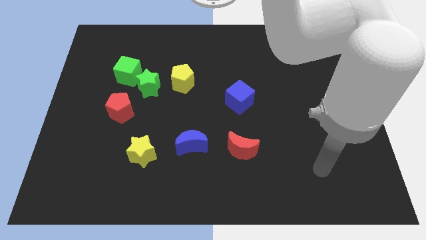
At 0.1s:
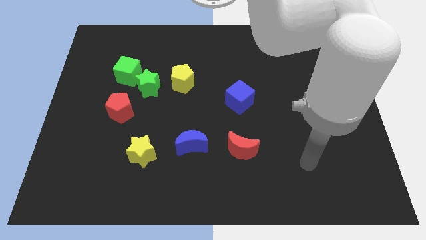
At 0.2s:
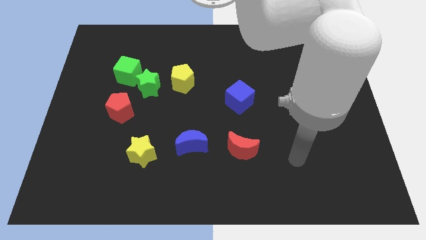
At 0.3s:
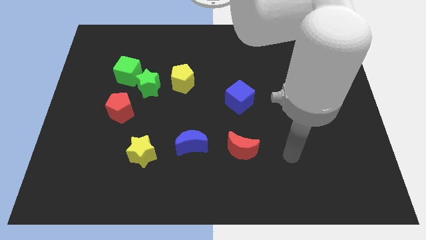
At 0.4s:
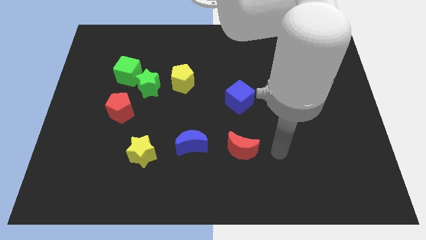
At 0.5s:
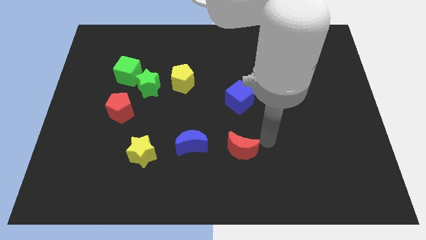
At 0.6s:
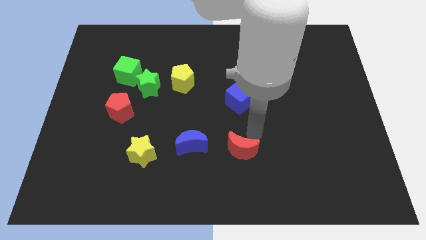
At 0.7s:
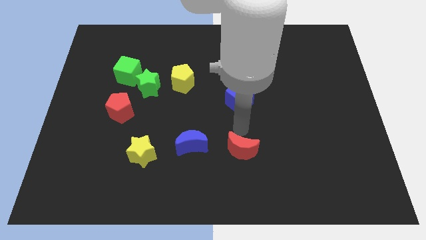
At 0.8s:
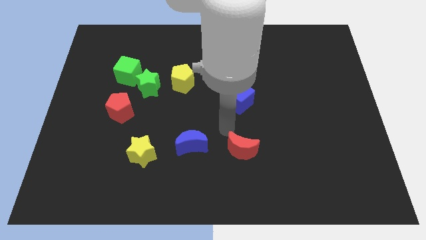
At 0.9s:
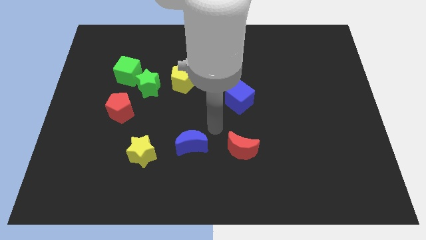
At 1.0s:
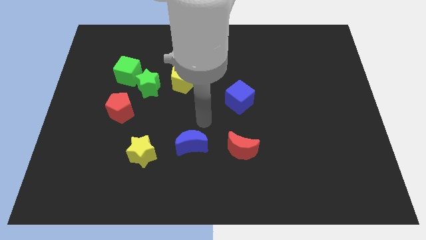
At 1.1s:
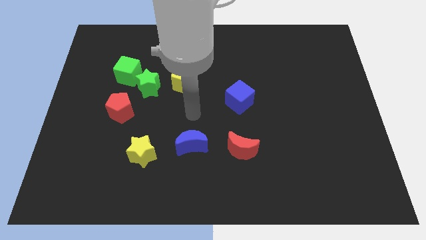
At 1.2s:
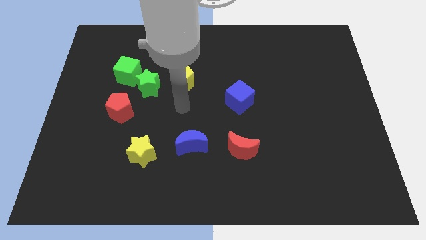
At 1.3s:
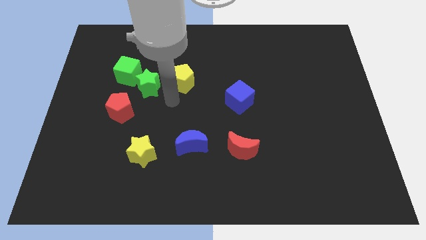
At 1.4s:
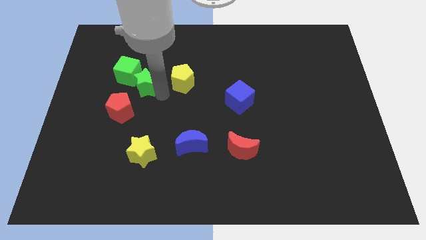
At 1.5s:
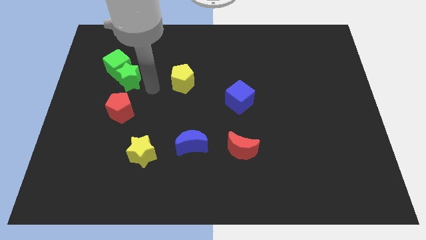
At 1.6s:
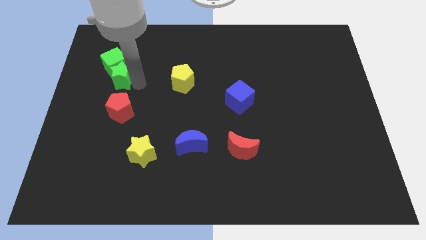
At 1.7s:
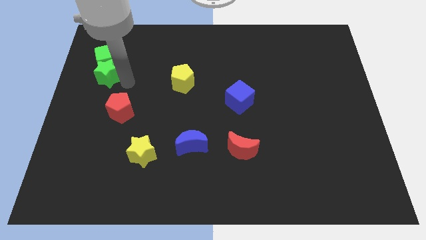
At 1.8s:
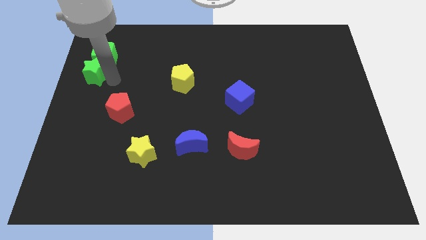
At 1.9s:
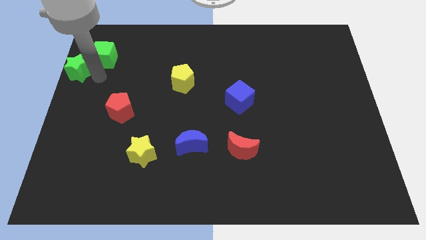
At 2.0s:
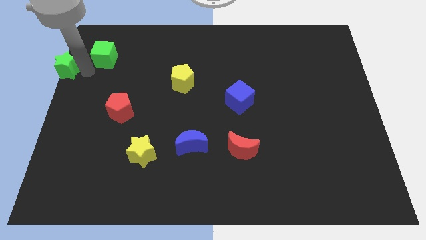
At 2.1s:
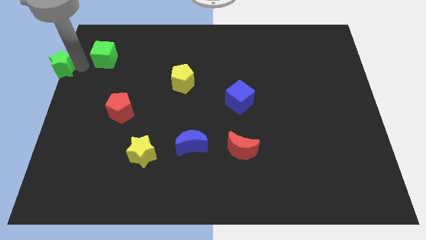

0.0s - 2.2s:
pull the green cube apart from the green star

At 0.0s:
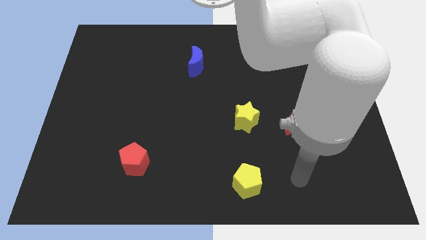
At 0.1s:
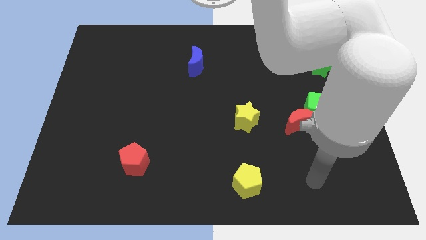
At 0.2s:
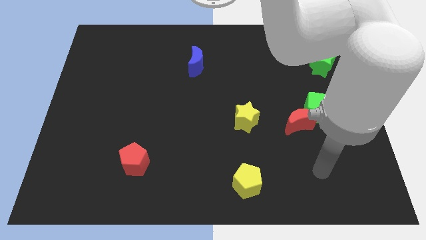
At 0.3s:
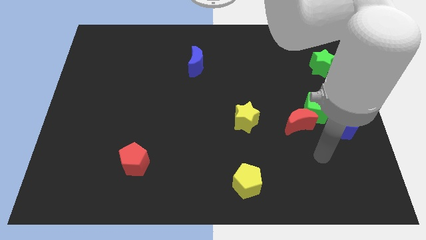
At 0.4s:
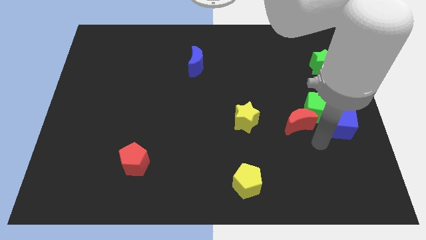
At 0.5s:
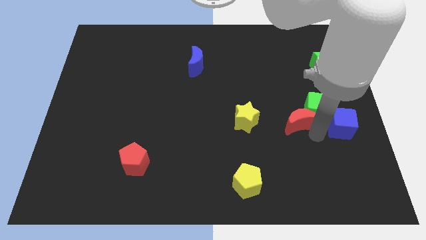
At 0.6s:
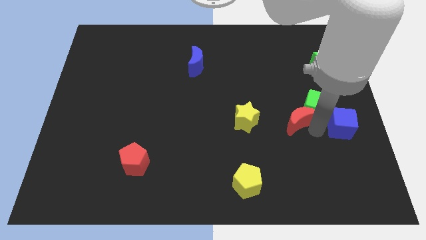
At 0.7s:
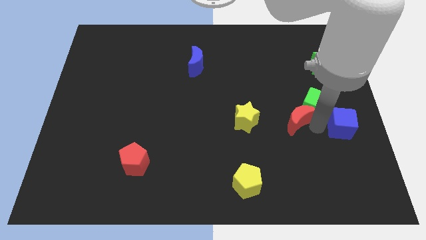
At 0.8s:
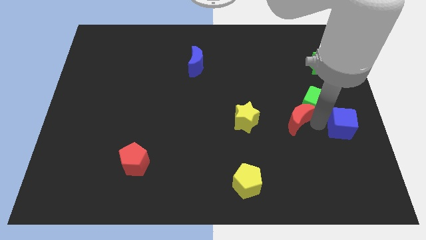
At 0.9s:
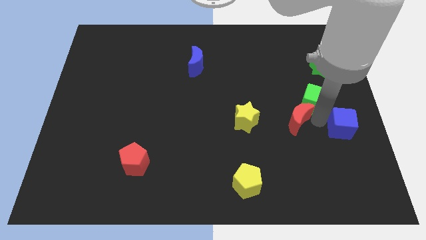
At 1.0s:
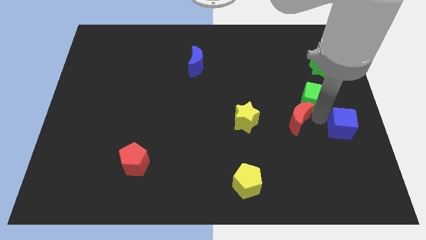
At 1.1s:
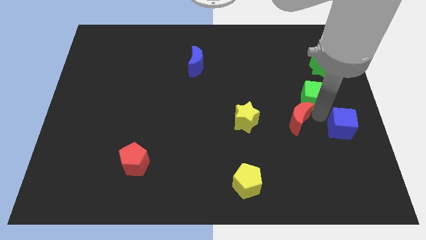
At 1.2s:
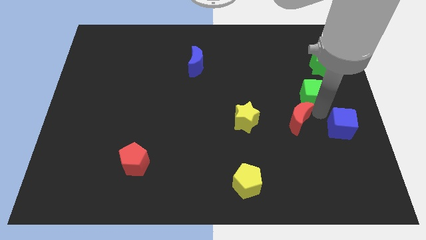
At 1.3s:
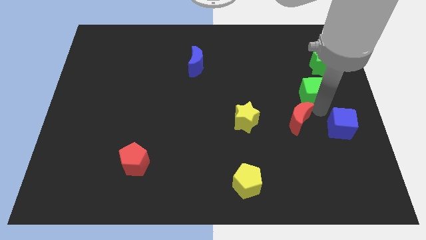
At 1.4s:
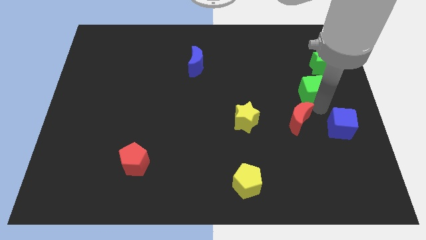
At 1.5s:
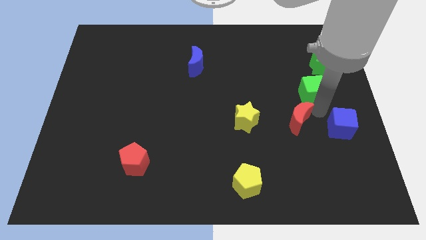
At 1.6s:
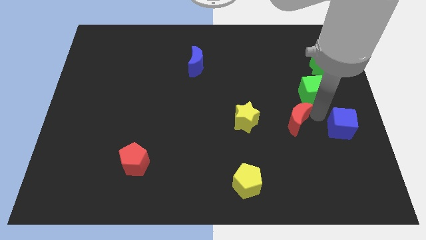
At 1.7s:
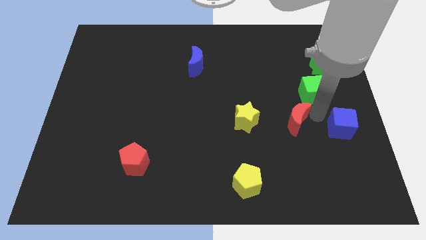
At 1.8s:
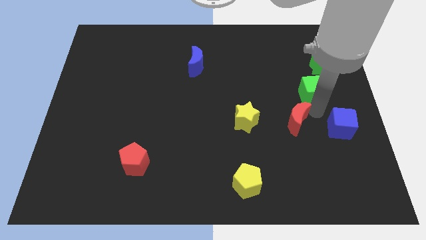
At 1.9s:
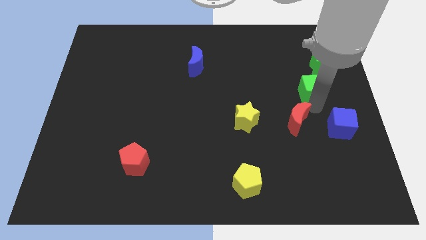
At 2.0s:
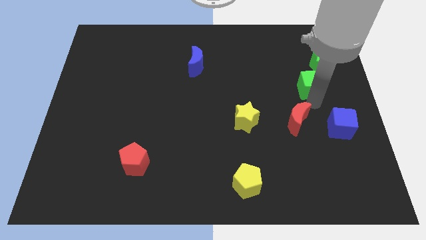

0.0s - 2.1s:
separate the green cube from the red moon and blue cube

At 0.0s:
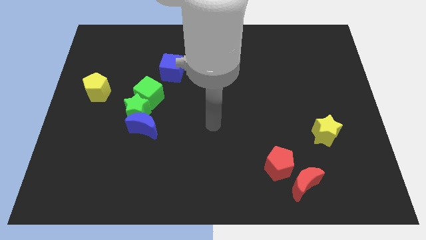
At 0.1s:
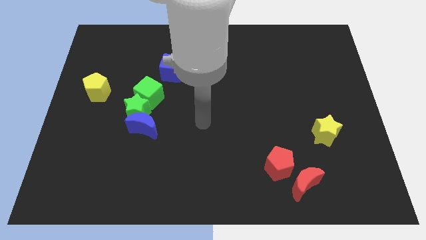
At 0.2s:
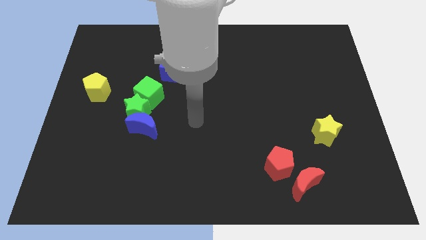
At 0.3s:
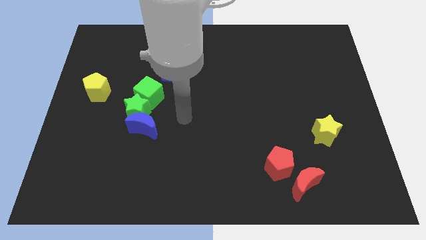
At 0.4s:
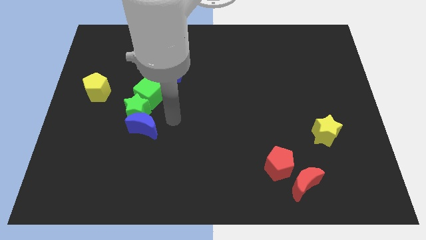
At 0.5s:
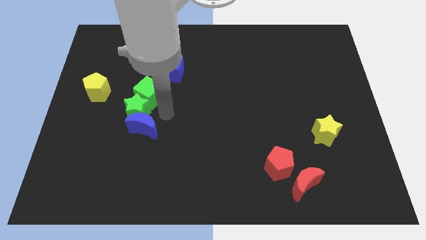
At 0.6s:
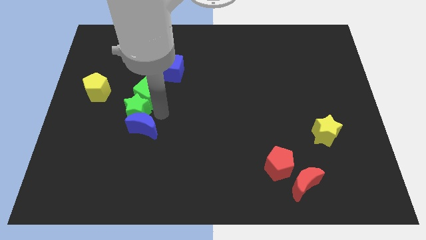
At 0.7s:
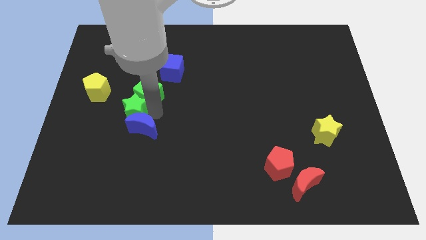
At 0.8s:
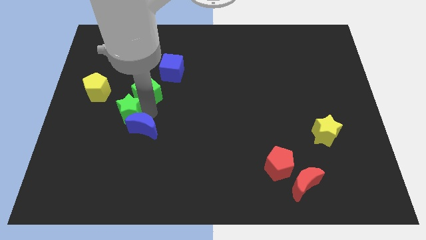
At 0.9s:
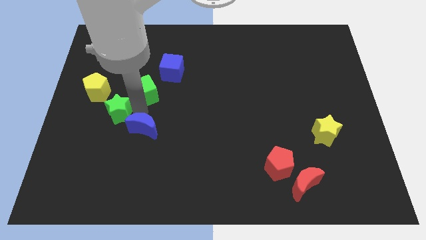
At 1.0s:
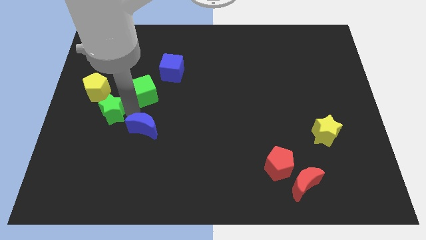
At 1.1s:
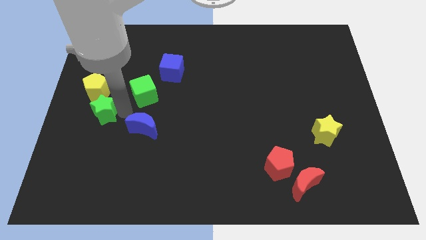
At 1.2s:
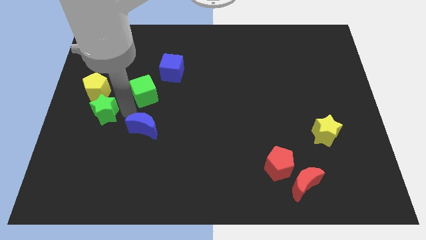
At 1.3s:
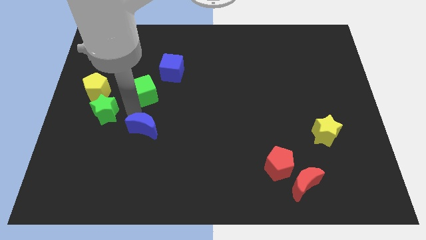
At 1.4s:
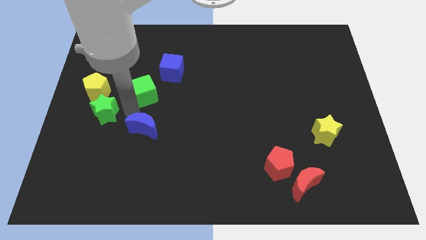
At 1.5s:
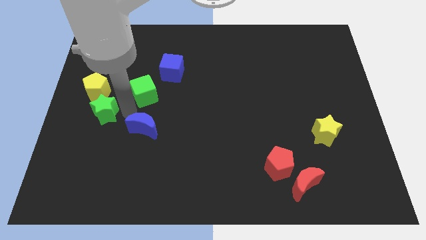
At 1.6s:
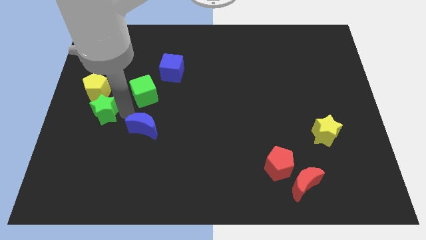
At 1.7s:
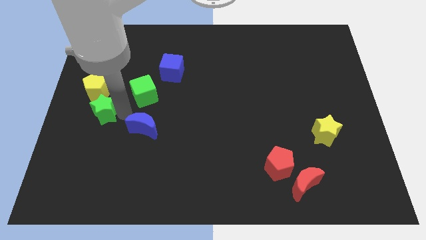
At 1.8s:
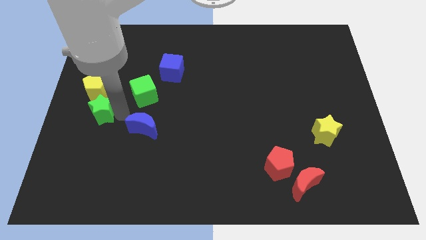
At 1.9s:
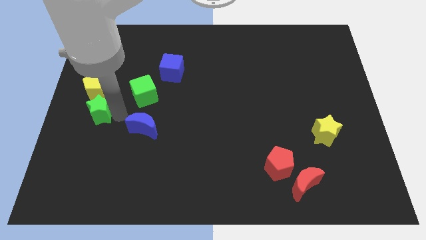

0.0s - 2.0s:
pull the green star apart from the blue moon and green cube

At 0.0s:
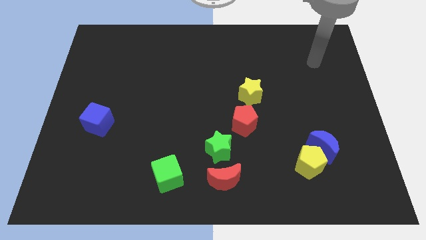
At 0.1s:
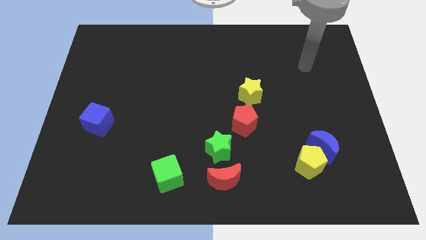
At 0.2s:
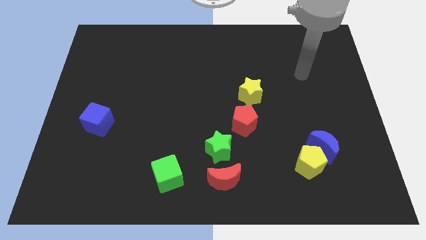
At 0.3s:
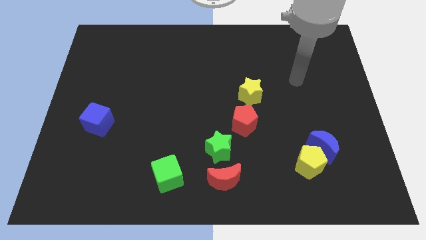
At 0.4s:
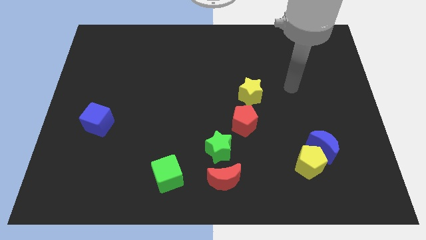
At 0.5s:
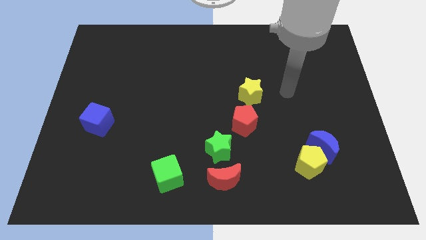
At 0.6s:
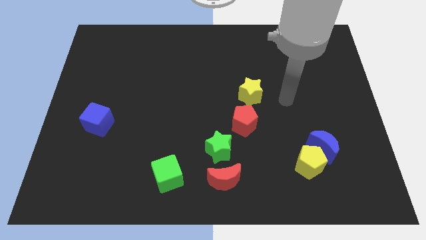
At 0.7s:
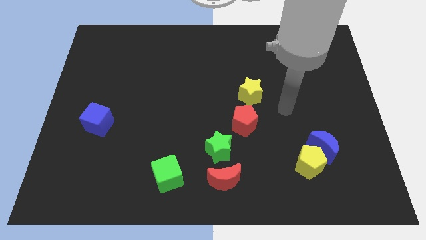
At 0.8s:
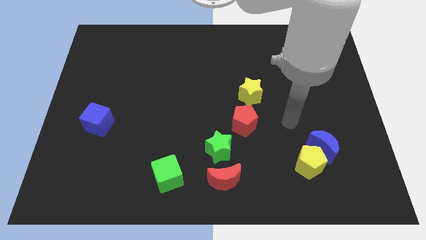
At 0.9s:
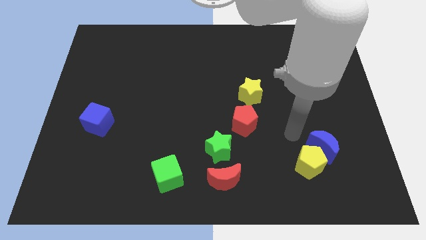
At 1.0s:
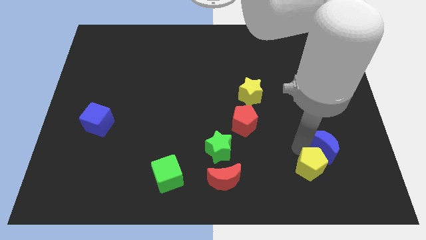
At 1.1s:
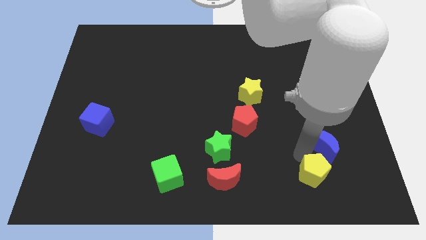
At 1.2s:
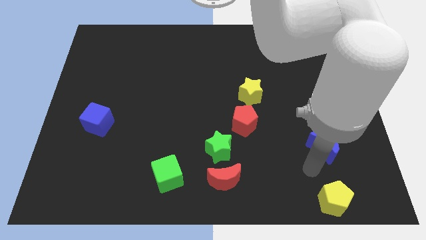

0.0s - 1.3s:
pull the blue moon apart from the yellow pentagon

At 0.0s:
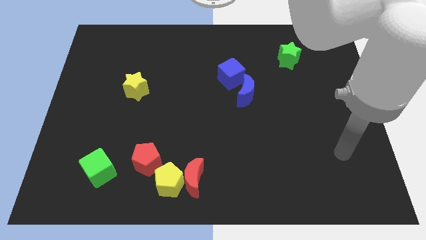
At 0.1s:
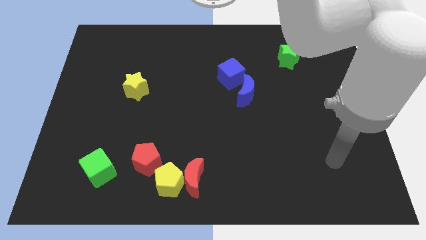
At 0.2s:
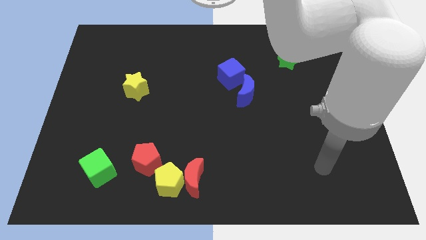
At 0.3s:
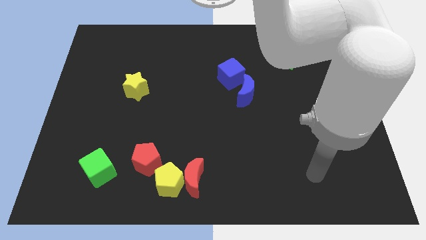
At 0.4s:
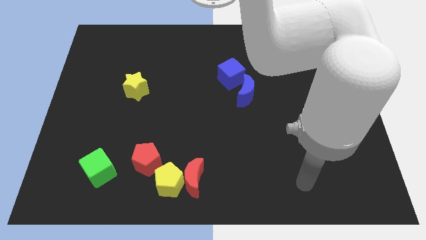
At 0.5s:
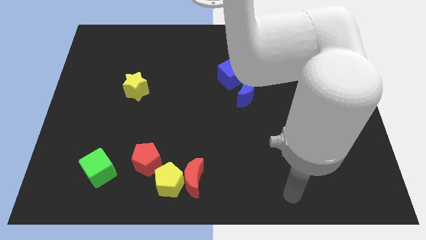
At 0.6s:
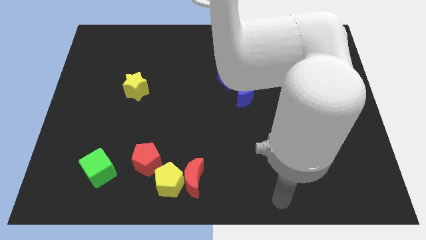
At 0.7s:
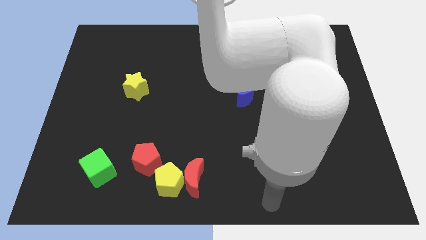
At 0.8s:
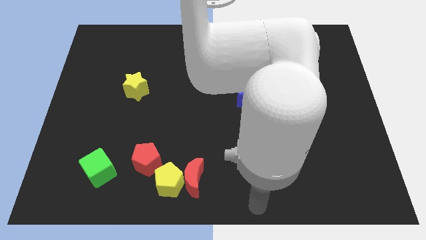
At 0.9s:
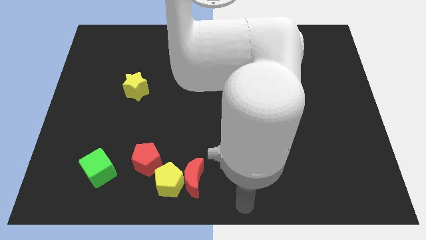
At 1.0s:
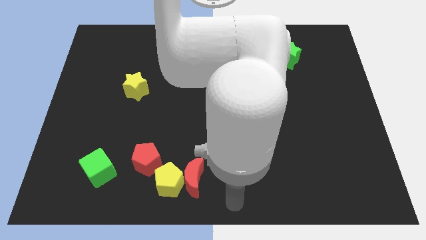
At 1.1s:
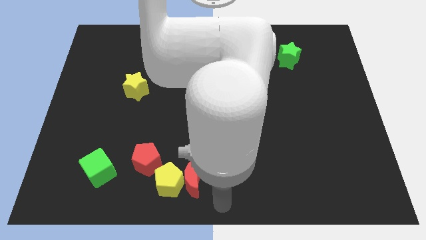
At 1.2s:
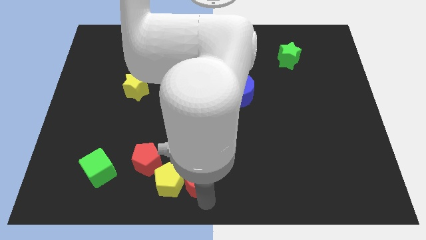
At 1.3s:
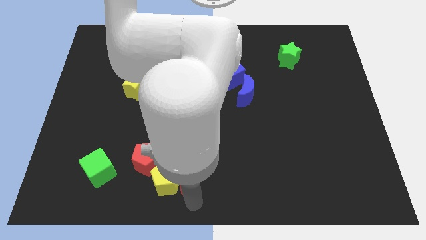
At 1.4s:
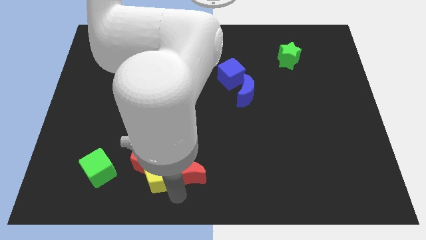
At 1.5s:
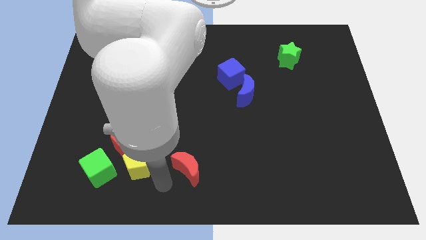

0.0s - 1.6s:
pull the red moon apart from the yellow pentagon

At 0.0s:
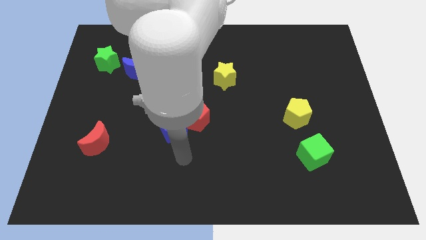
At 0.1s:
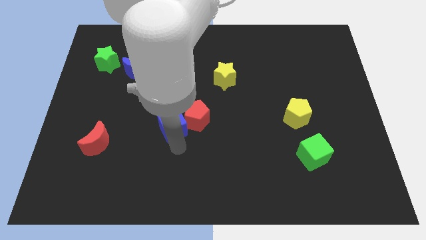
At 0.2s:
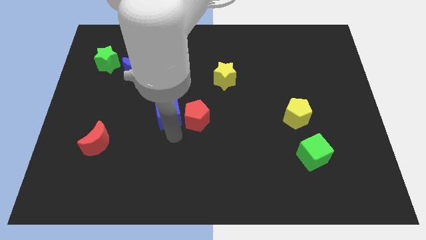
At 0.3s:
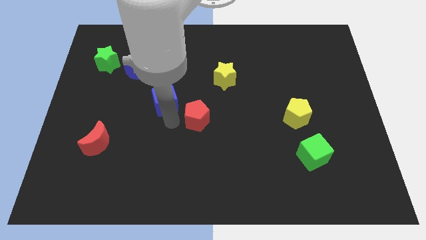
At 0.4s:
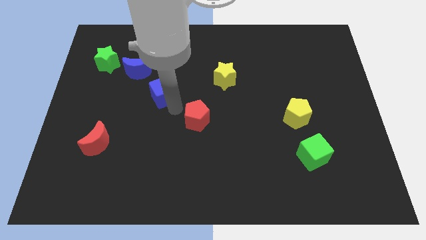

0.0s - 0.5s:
move the red pentagon away from the blue cube
